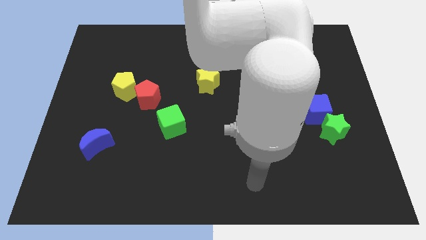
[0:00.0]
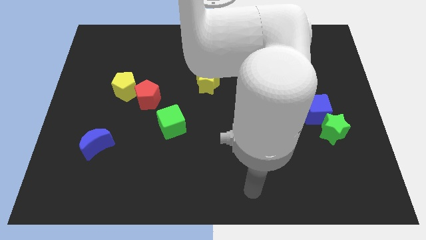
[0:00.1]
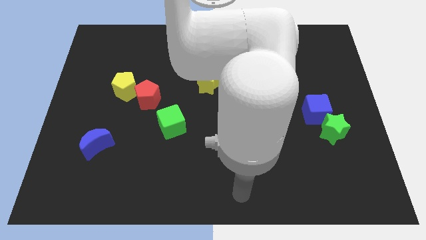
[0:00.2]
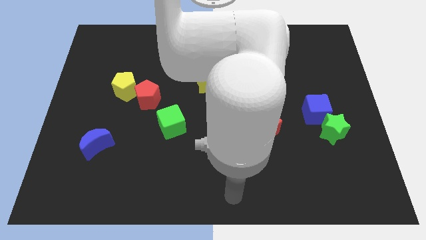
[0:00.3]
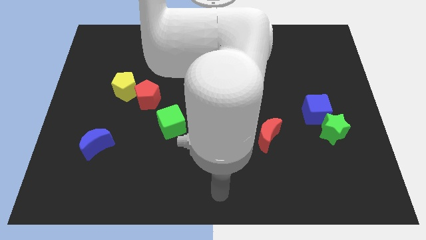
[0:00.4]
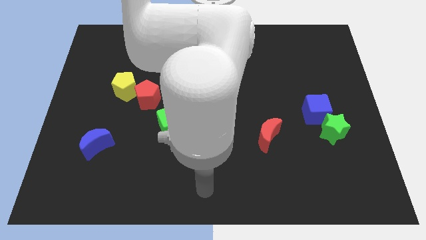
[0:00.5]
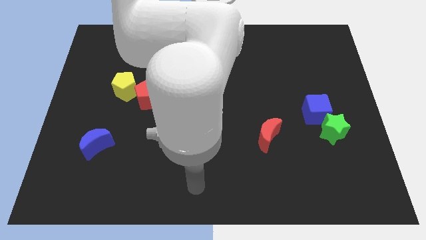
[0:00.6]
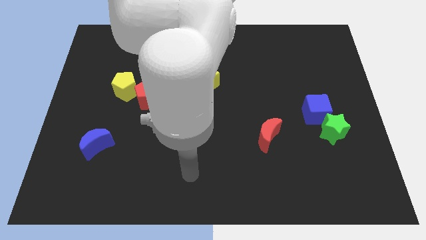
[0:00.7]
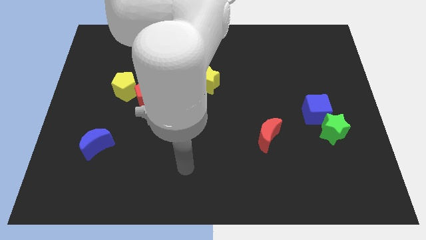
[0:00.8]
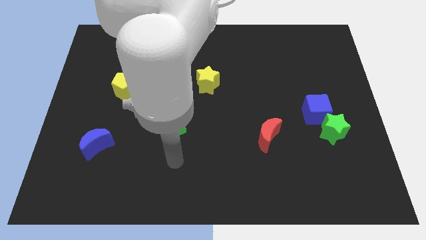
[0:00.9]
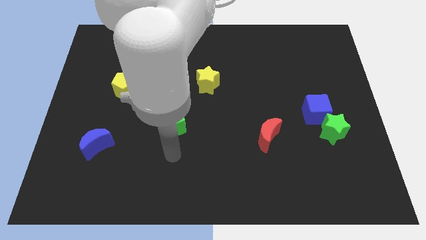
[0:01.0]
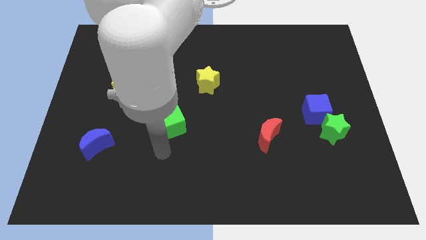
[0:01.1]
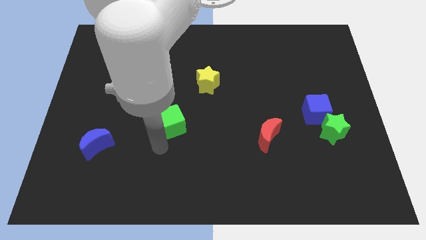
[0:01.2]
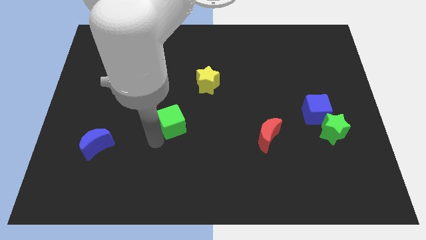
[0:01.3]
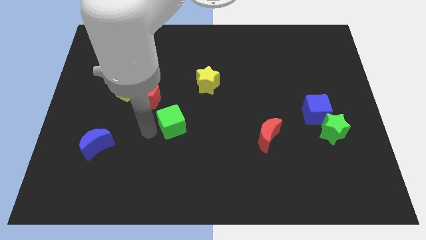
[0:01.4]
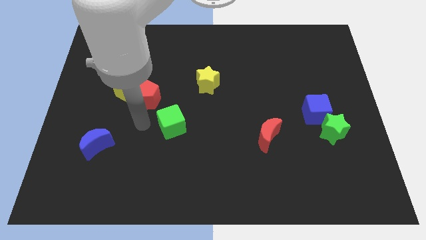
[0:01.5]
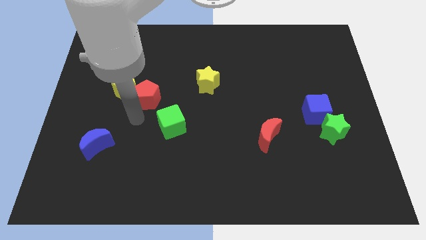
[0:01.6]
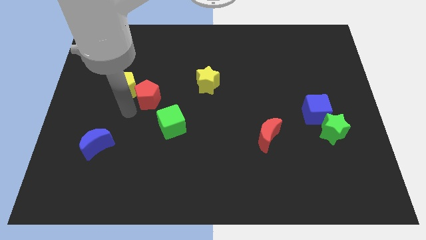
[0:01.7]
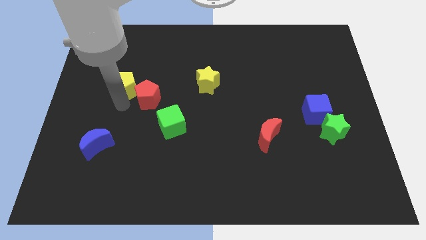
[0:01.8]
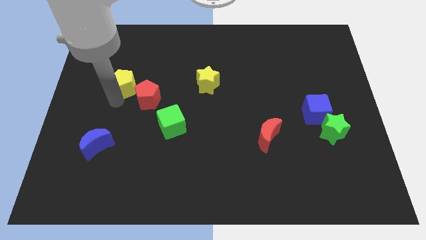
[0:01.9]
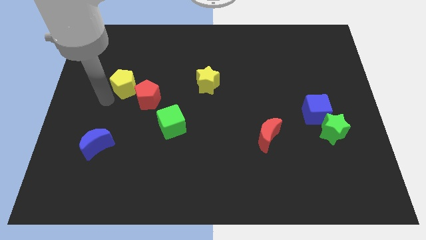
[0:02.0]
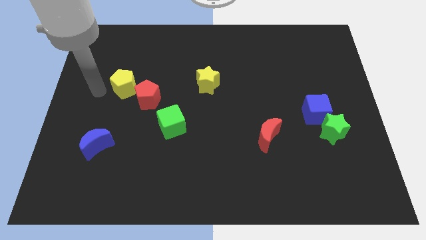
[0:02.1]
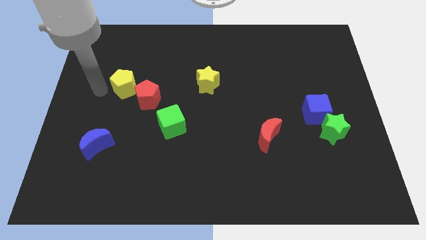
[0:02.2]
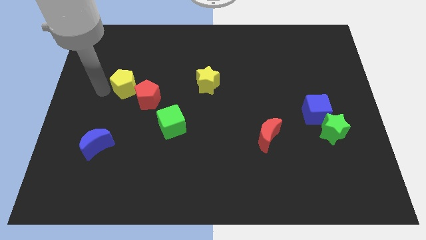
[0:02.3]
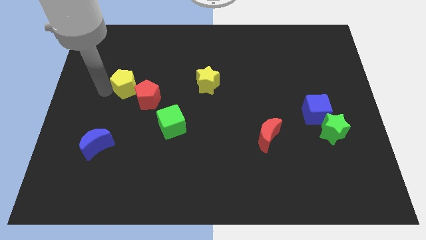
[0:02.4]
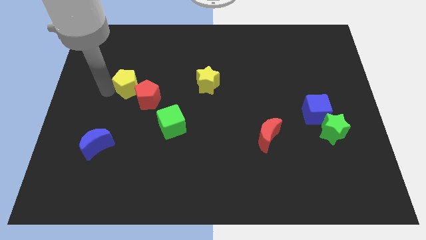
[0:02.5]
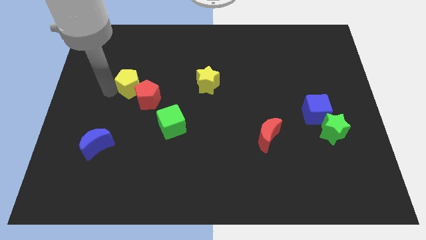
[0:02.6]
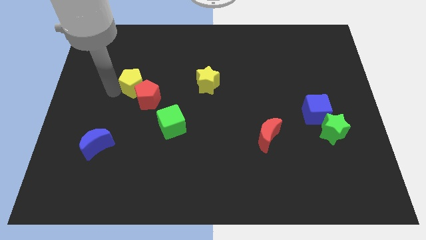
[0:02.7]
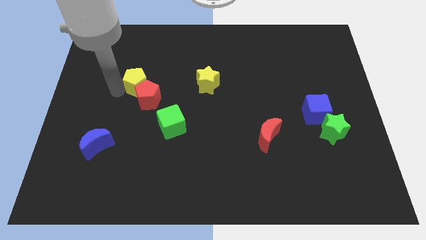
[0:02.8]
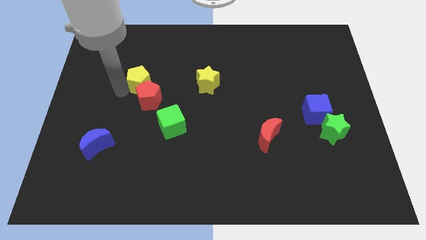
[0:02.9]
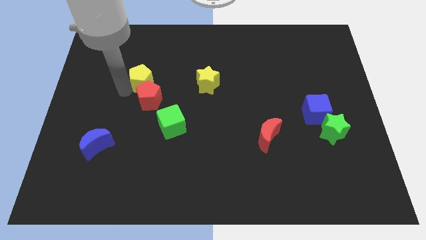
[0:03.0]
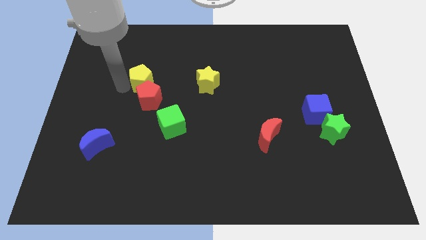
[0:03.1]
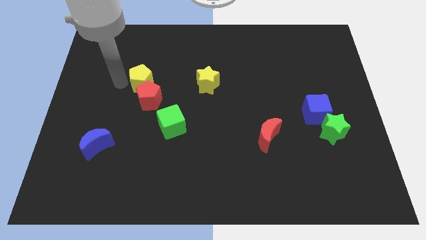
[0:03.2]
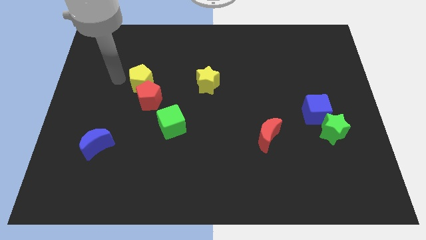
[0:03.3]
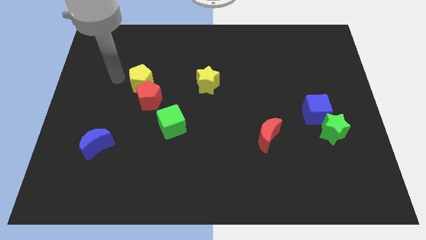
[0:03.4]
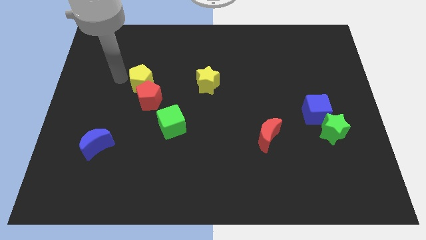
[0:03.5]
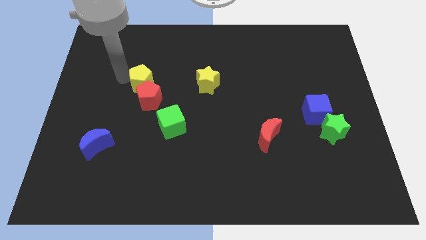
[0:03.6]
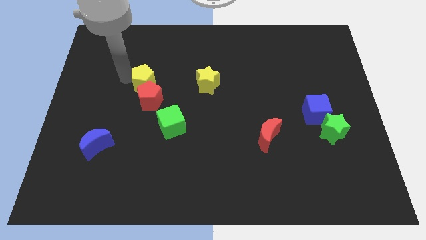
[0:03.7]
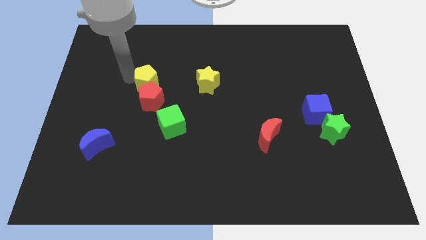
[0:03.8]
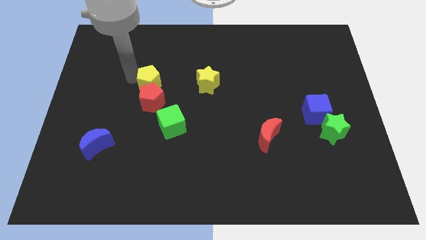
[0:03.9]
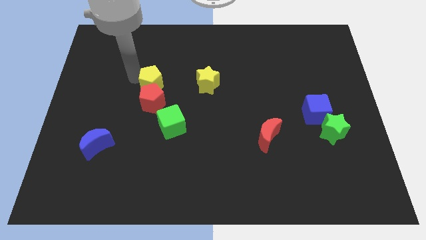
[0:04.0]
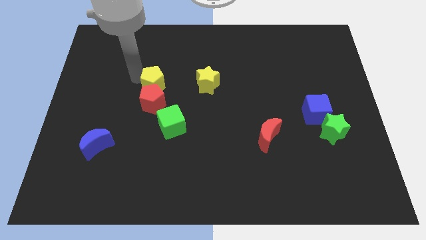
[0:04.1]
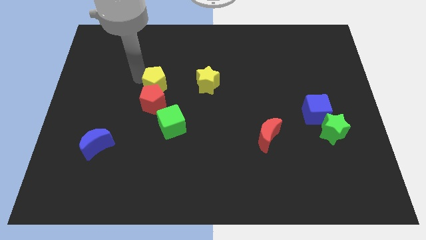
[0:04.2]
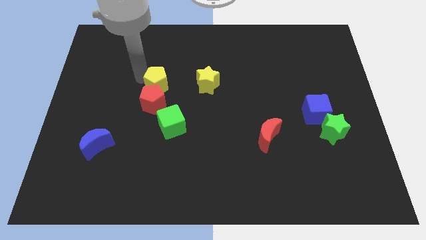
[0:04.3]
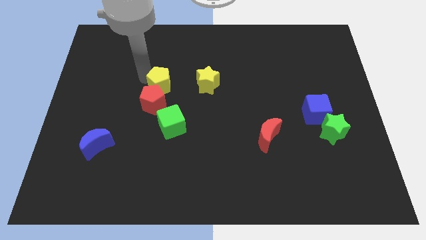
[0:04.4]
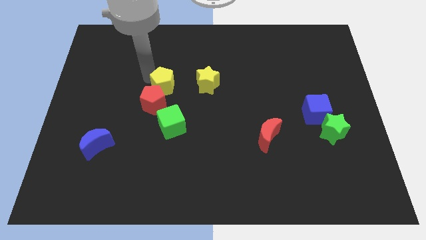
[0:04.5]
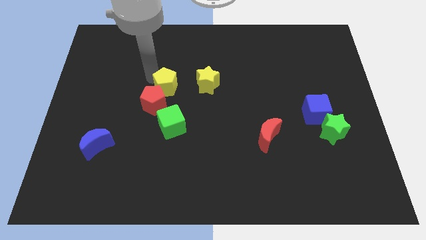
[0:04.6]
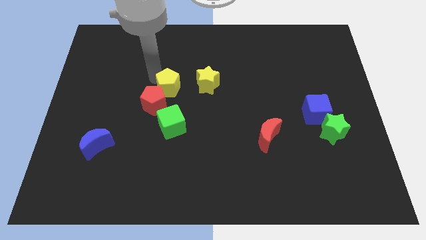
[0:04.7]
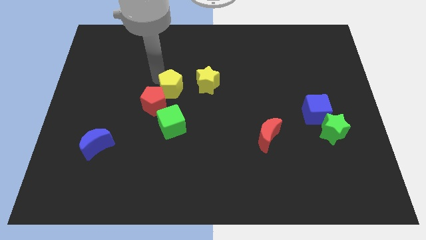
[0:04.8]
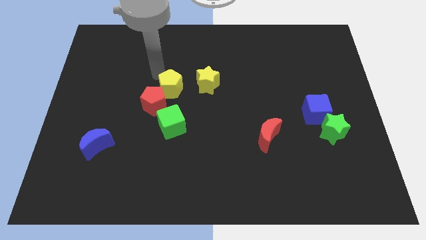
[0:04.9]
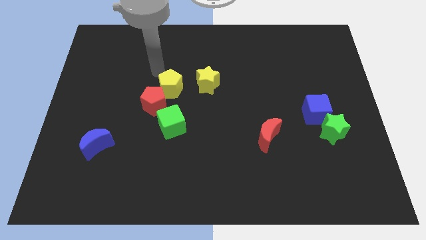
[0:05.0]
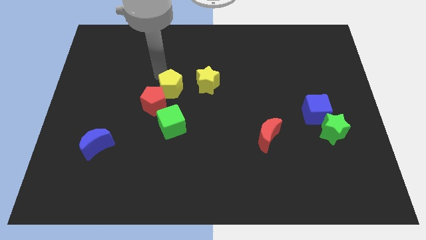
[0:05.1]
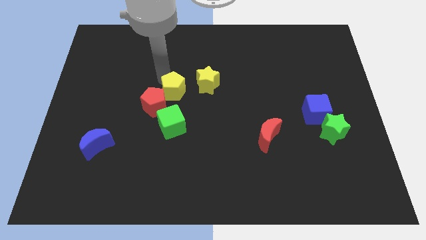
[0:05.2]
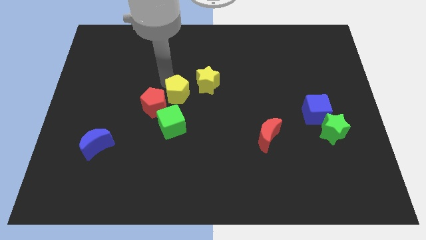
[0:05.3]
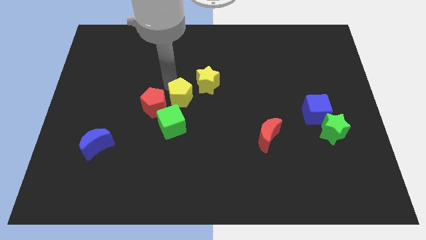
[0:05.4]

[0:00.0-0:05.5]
push the yellow pentagon to the top right of the green cube

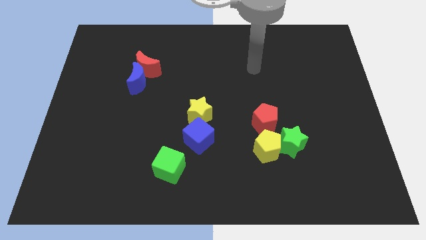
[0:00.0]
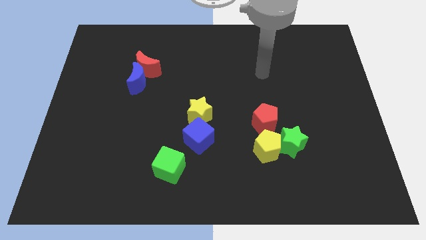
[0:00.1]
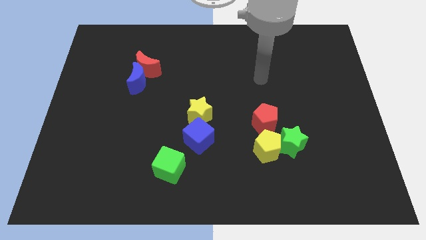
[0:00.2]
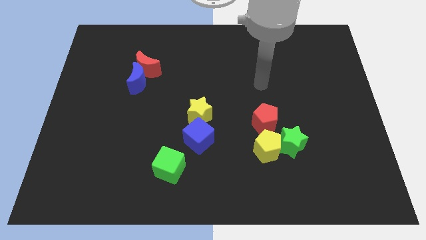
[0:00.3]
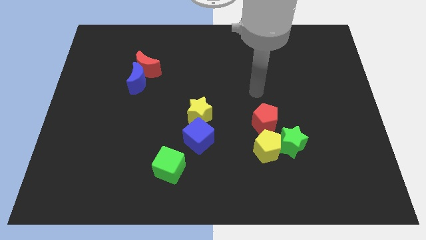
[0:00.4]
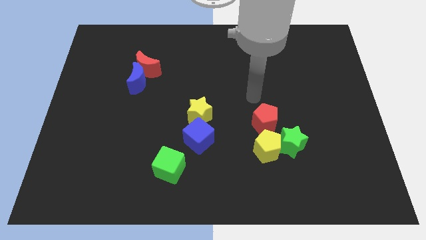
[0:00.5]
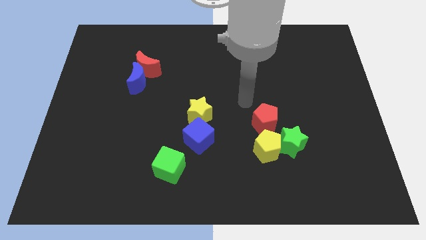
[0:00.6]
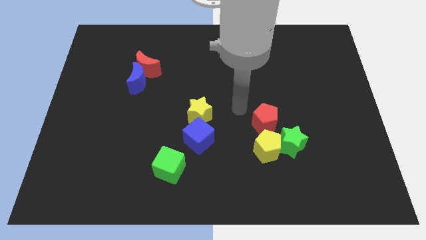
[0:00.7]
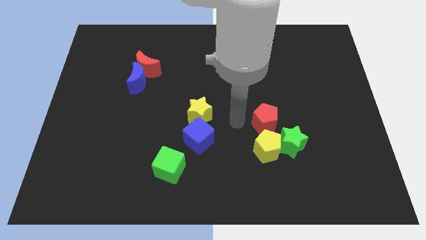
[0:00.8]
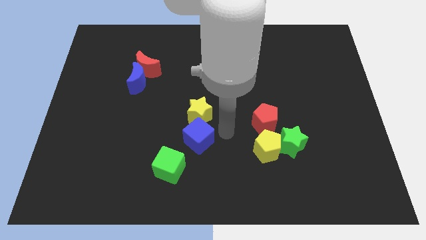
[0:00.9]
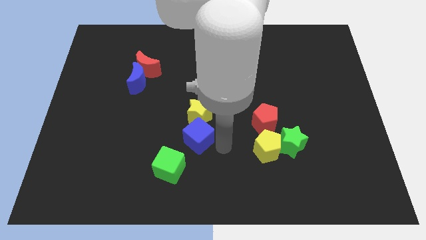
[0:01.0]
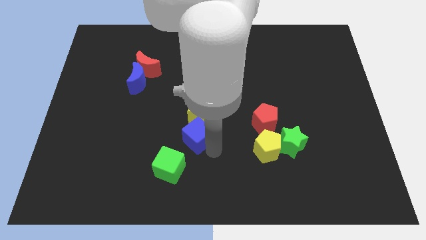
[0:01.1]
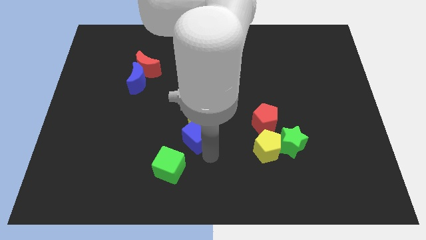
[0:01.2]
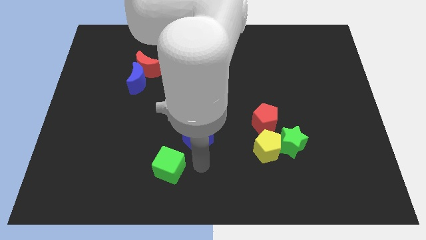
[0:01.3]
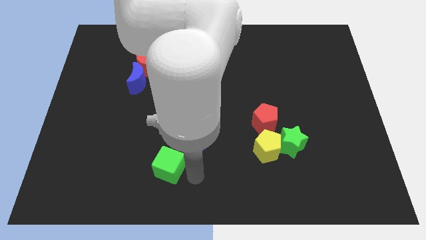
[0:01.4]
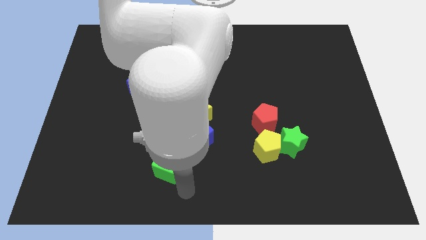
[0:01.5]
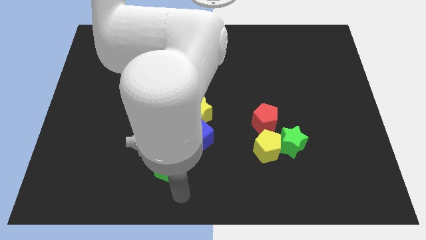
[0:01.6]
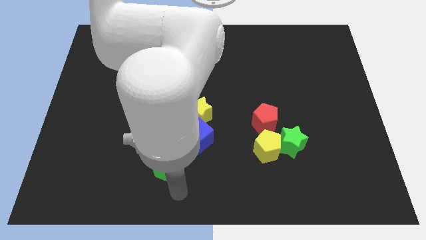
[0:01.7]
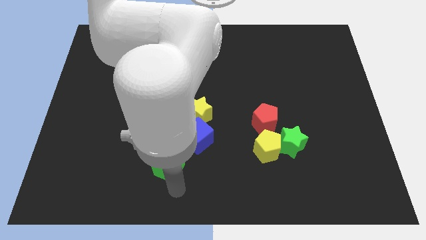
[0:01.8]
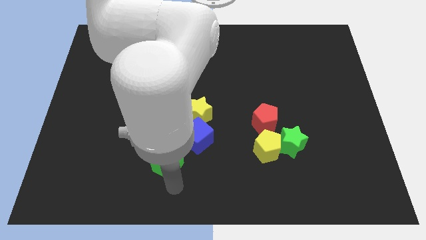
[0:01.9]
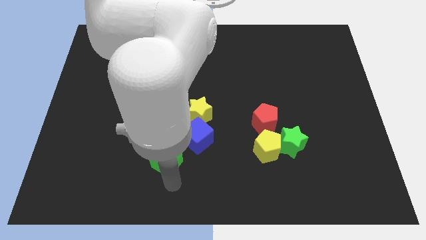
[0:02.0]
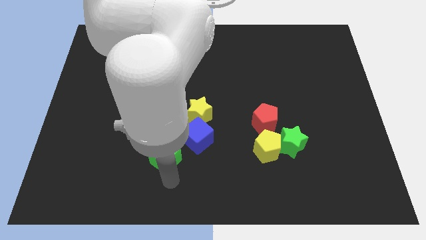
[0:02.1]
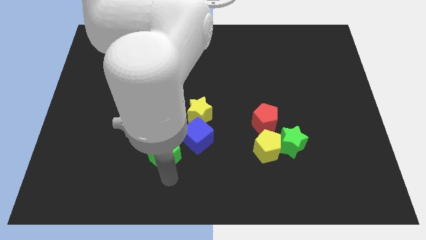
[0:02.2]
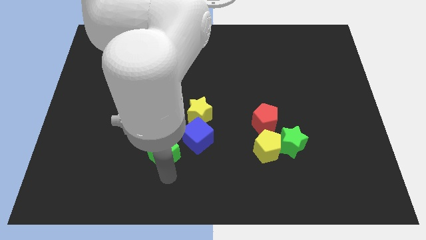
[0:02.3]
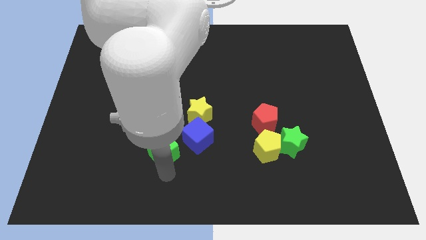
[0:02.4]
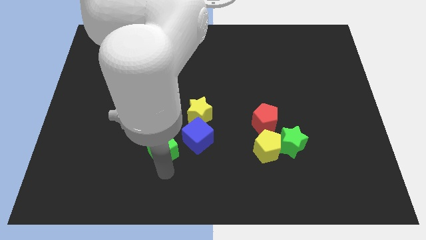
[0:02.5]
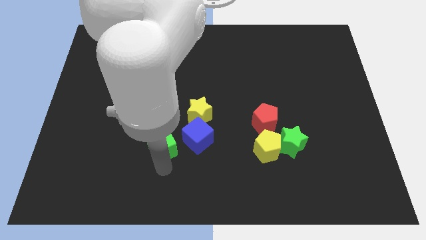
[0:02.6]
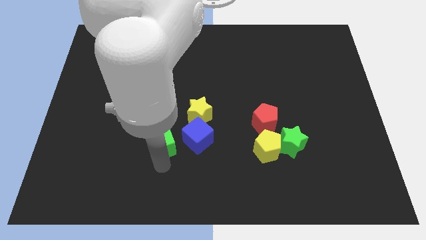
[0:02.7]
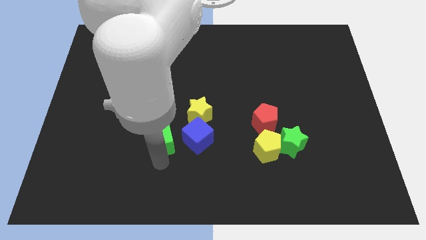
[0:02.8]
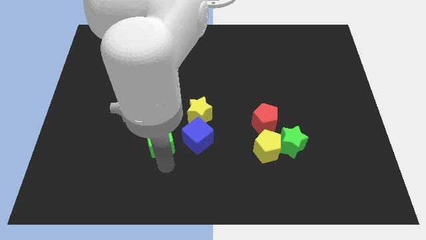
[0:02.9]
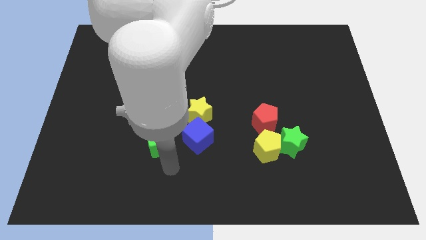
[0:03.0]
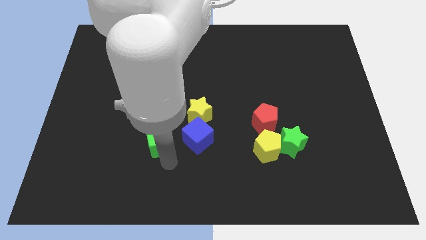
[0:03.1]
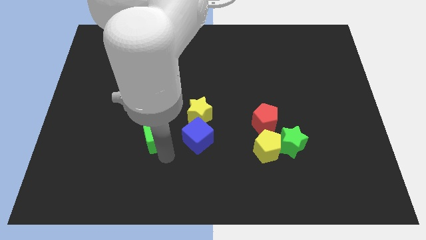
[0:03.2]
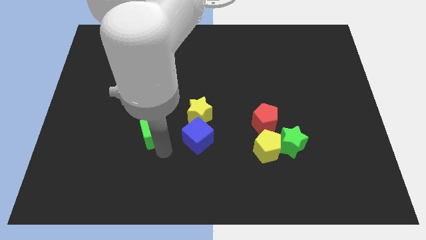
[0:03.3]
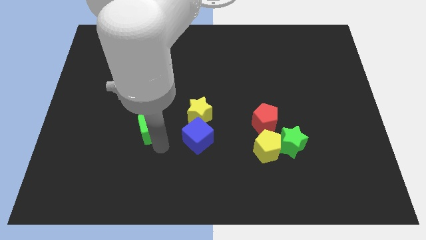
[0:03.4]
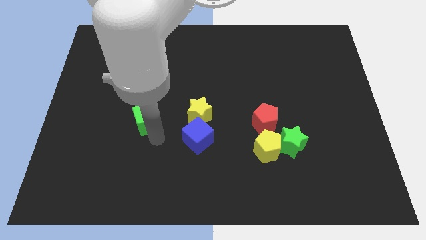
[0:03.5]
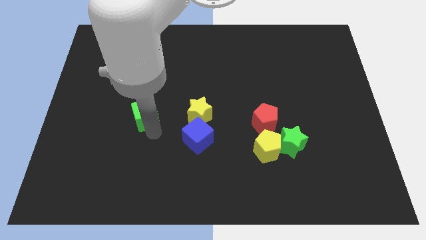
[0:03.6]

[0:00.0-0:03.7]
push the green cube to the bottom of the red moon
